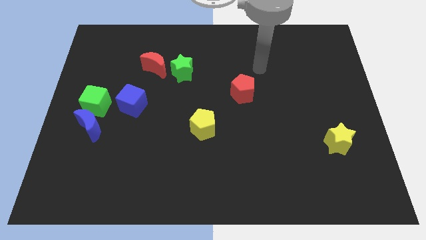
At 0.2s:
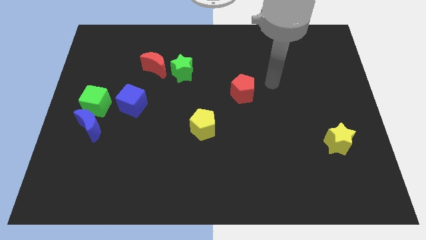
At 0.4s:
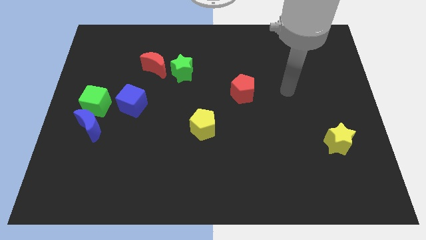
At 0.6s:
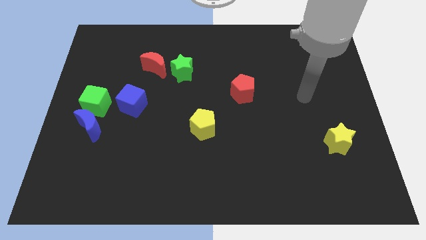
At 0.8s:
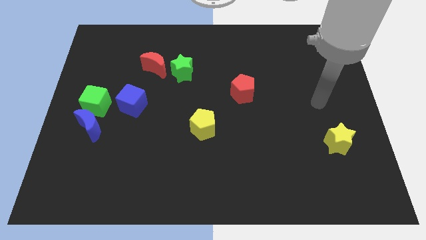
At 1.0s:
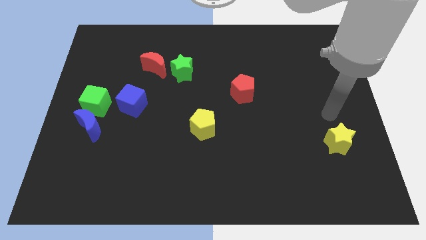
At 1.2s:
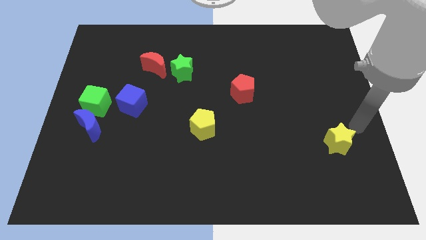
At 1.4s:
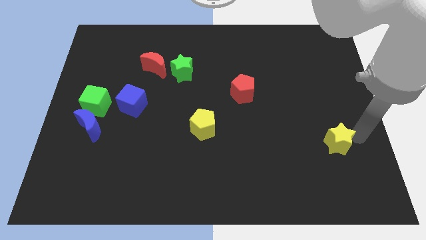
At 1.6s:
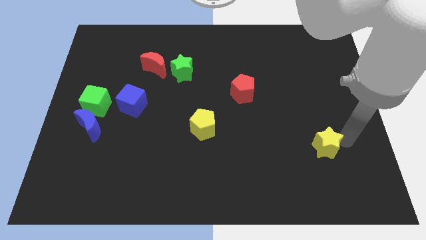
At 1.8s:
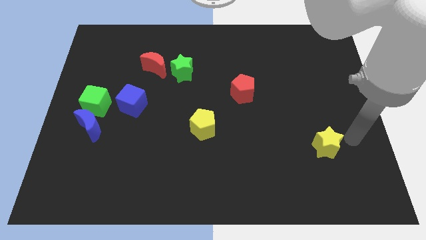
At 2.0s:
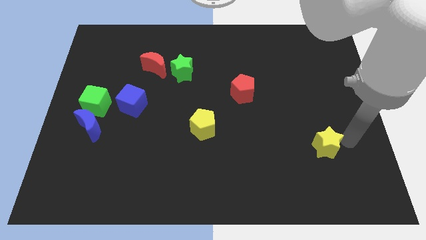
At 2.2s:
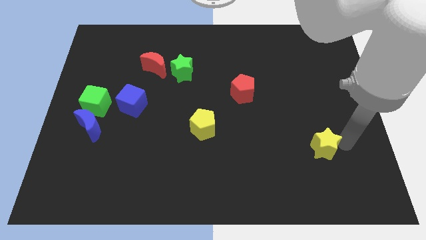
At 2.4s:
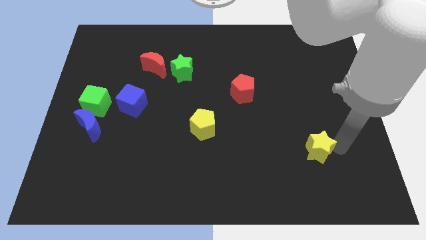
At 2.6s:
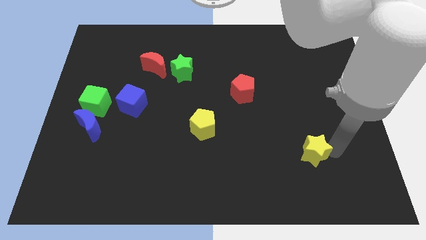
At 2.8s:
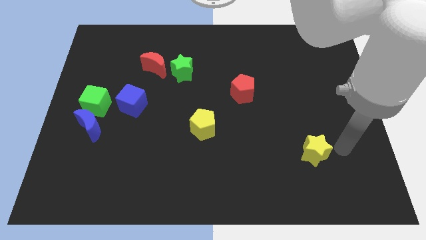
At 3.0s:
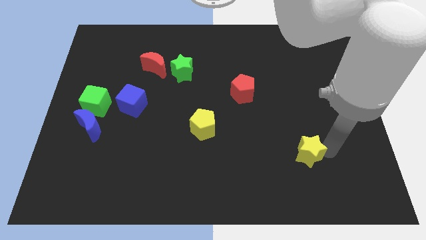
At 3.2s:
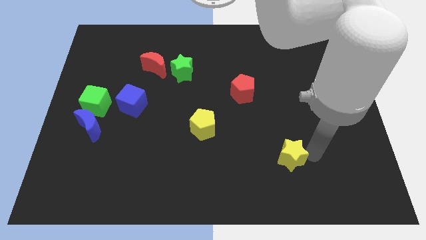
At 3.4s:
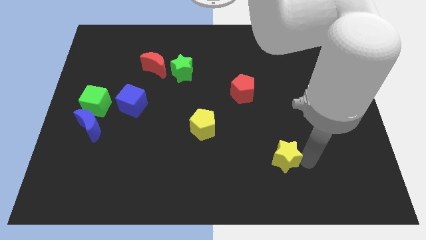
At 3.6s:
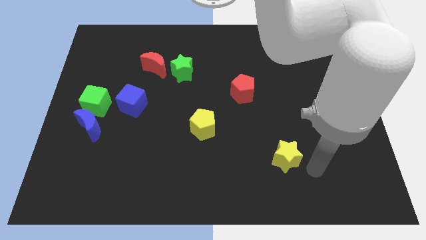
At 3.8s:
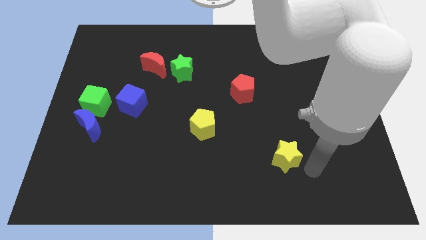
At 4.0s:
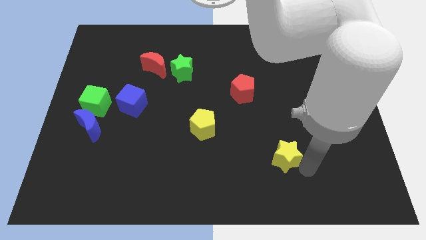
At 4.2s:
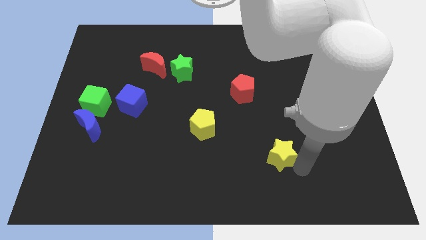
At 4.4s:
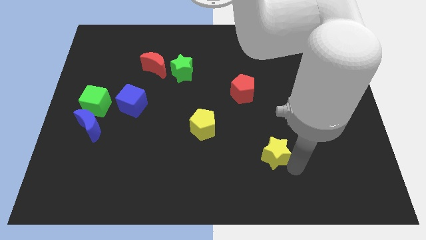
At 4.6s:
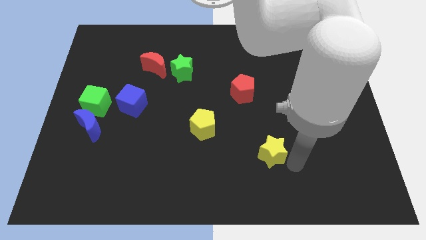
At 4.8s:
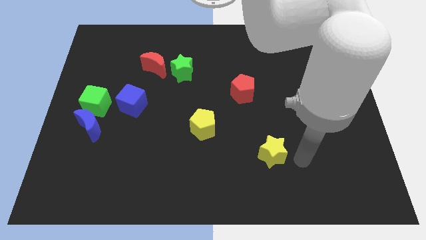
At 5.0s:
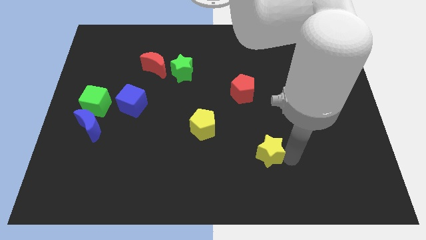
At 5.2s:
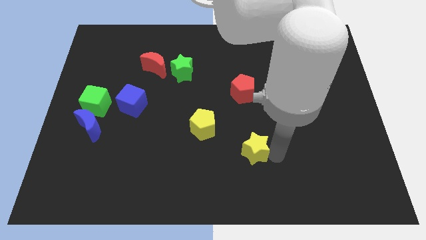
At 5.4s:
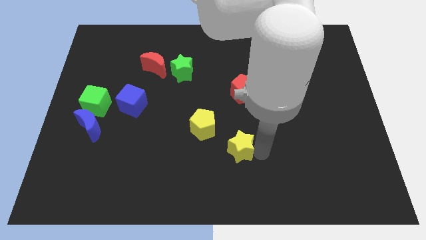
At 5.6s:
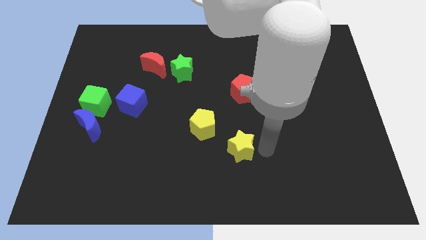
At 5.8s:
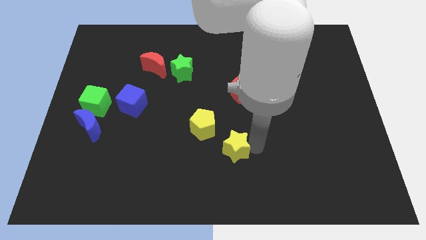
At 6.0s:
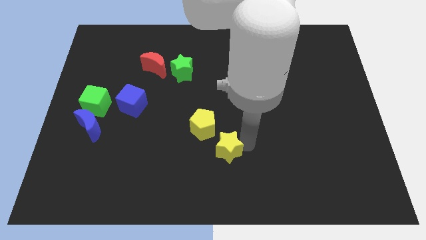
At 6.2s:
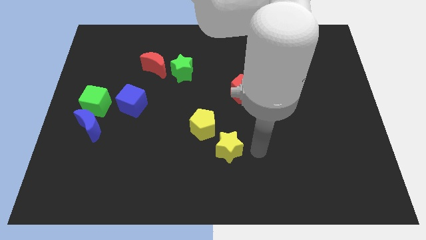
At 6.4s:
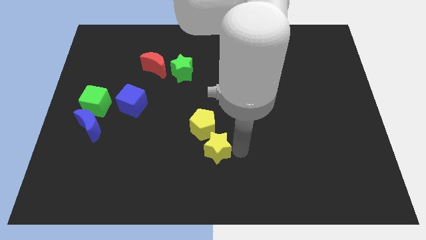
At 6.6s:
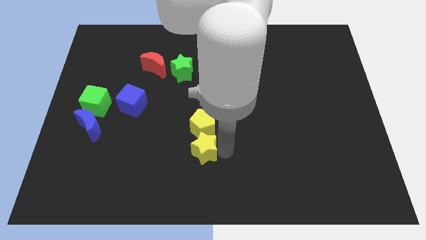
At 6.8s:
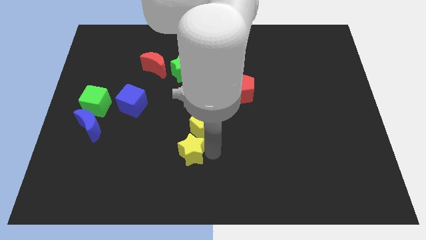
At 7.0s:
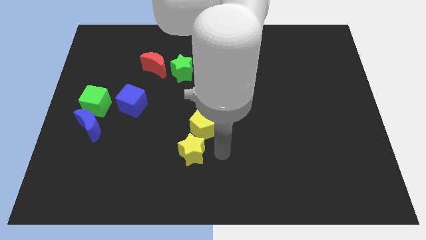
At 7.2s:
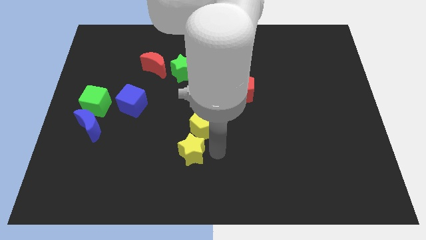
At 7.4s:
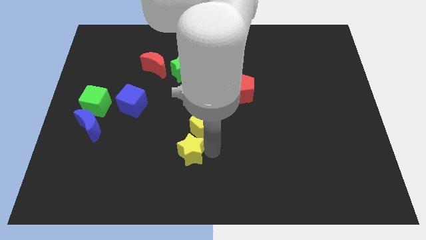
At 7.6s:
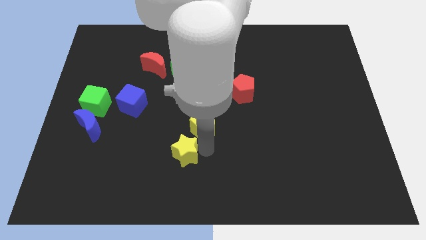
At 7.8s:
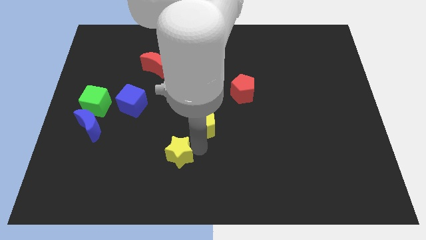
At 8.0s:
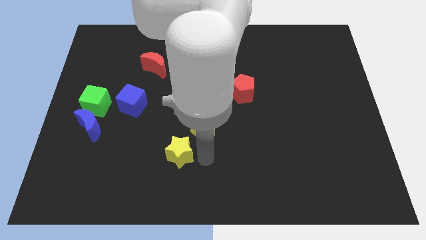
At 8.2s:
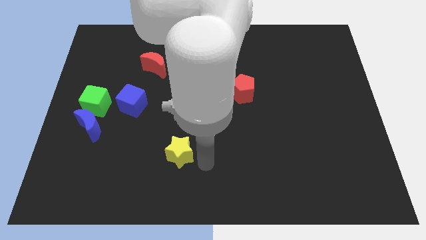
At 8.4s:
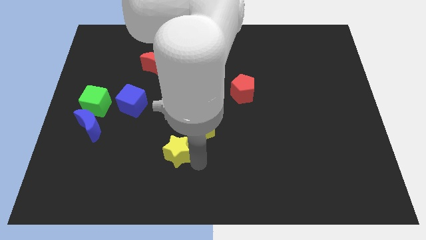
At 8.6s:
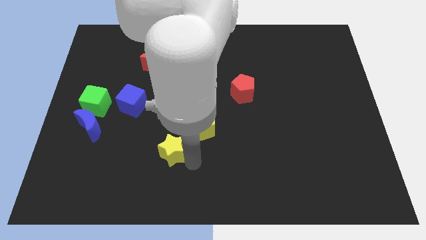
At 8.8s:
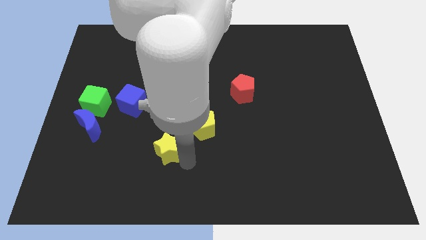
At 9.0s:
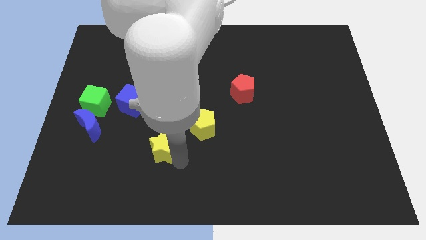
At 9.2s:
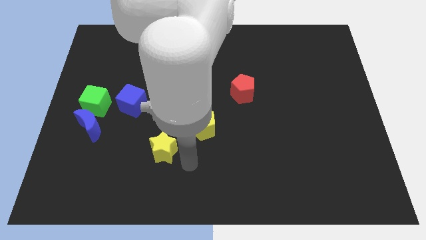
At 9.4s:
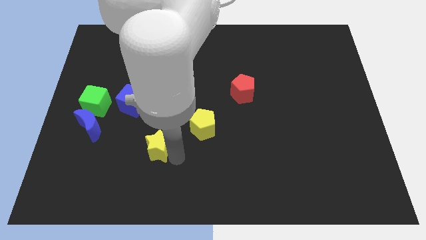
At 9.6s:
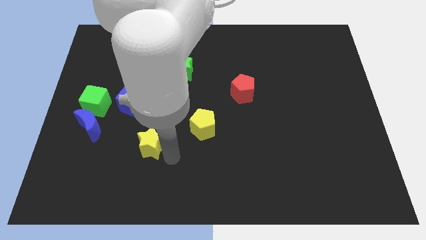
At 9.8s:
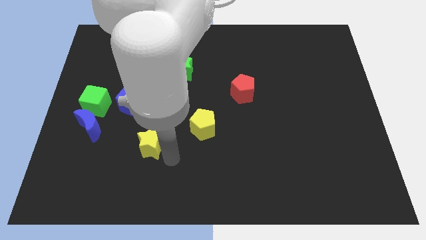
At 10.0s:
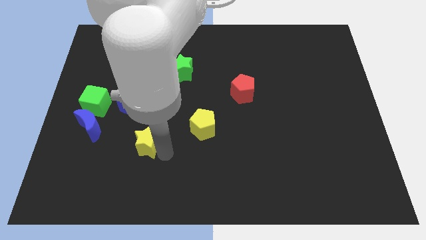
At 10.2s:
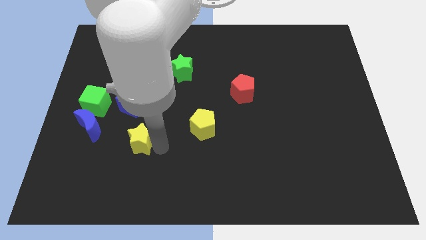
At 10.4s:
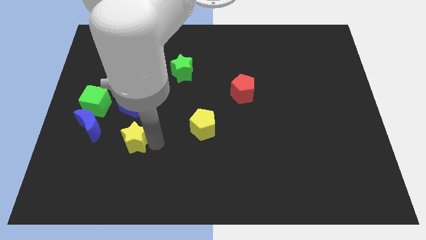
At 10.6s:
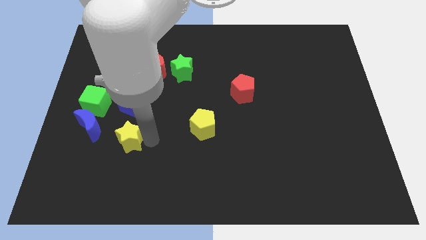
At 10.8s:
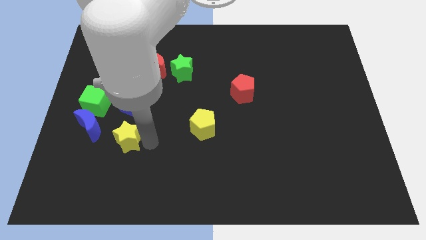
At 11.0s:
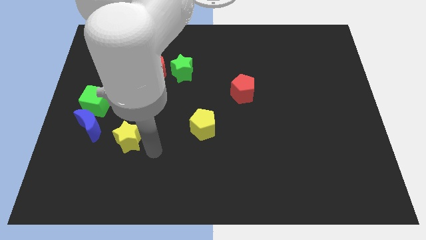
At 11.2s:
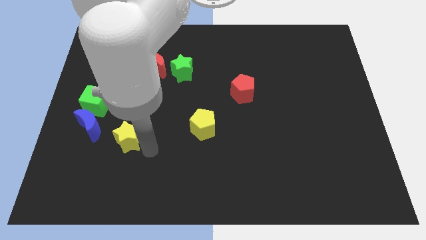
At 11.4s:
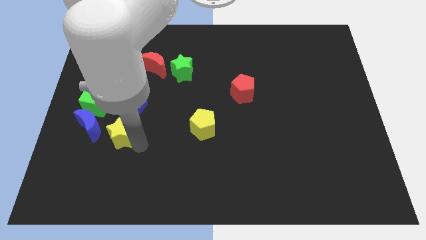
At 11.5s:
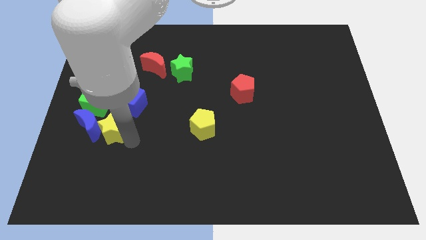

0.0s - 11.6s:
push the yellow star close to the blue moon

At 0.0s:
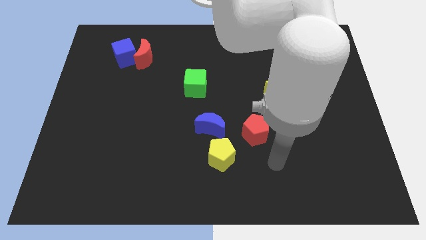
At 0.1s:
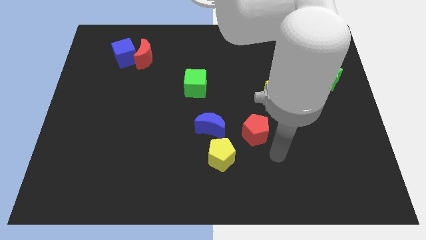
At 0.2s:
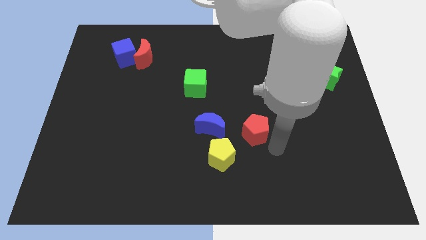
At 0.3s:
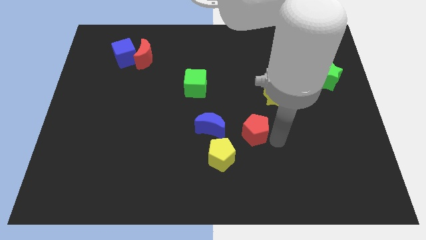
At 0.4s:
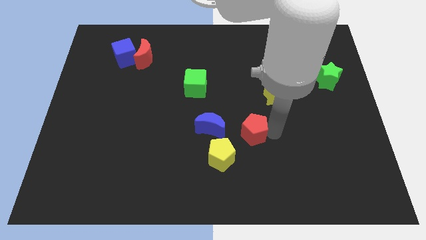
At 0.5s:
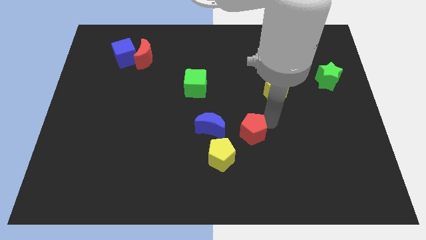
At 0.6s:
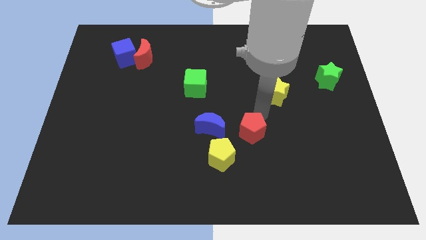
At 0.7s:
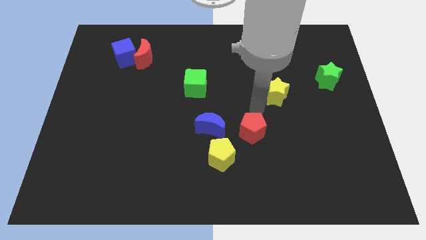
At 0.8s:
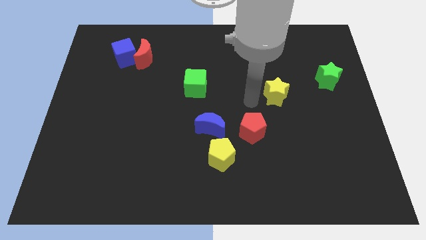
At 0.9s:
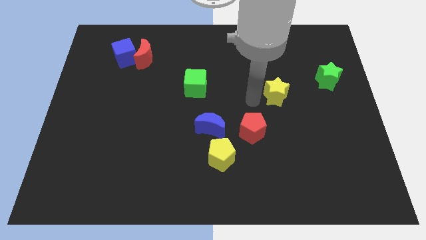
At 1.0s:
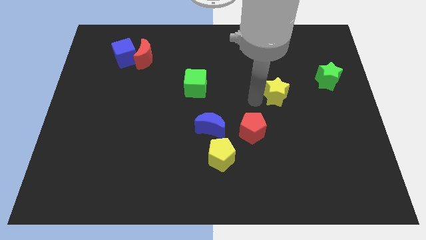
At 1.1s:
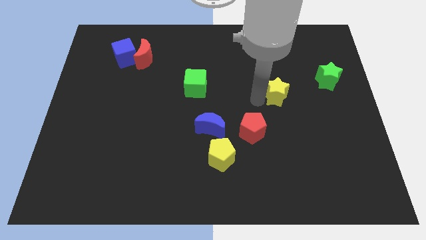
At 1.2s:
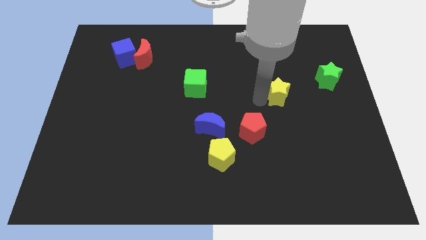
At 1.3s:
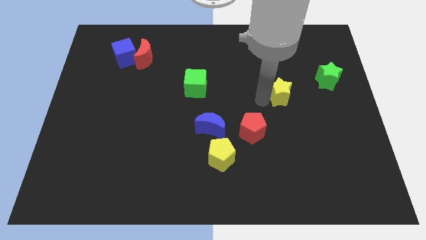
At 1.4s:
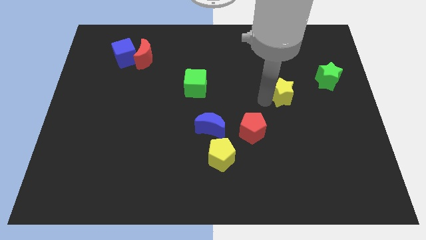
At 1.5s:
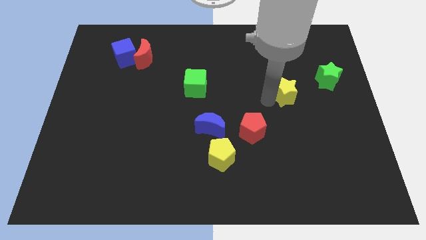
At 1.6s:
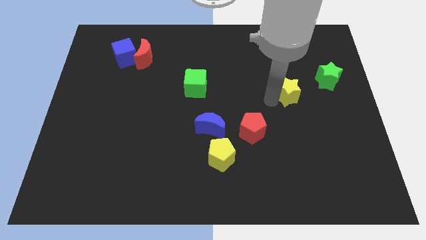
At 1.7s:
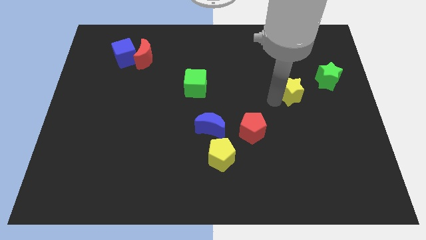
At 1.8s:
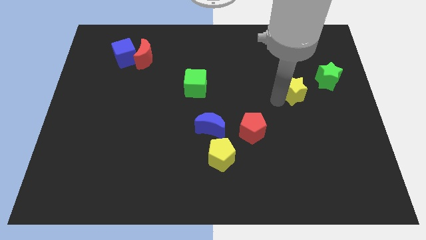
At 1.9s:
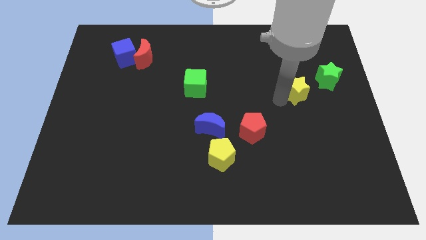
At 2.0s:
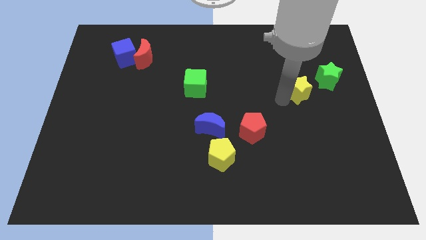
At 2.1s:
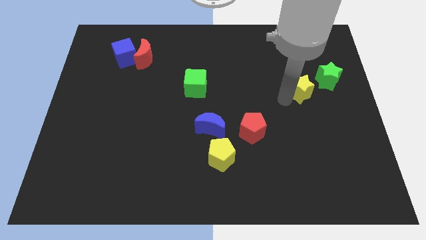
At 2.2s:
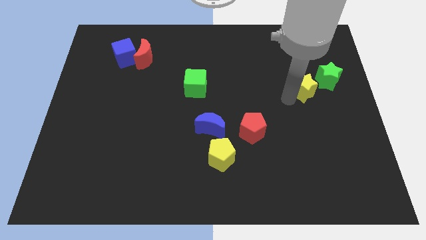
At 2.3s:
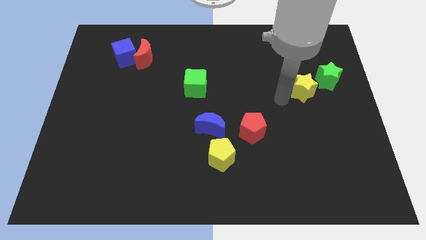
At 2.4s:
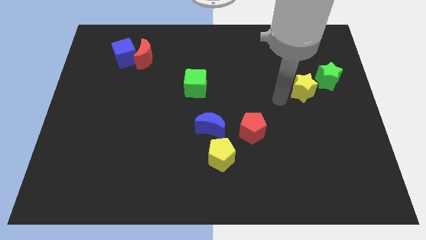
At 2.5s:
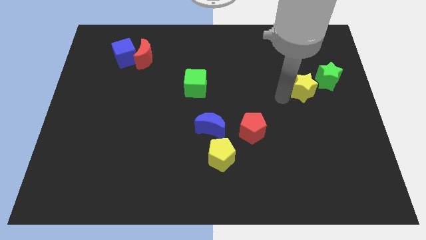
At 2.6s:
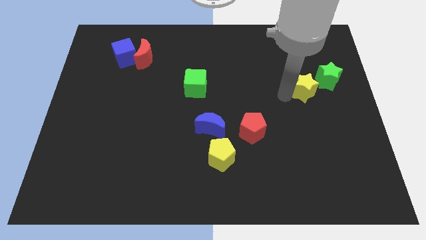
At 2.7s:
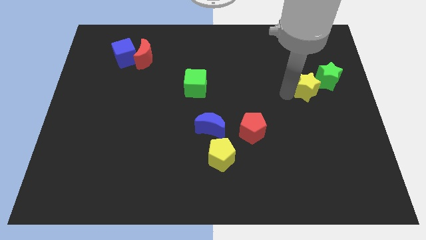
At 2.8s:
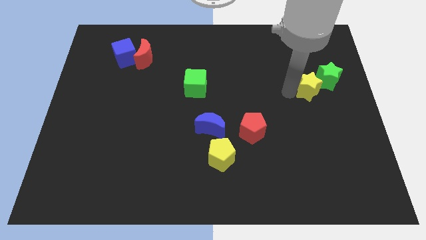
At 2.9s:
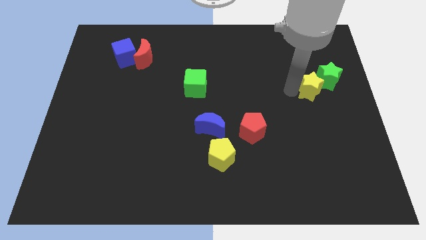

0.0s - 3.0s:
move the yellow star towards the green star
